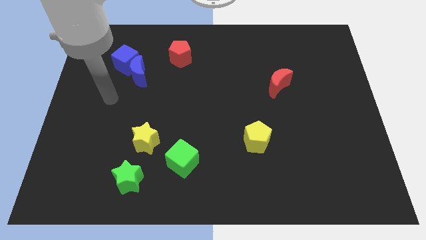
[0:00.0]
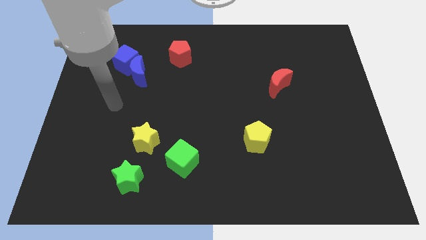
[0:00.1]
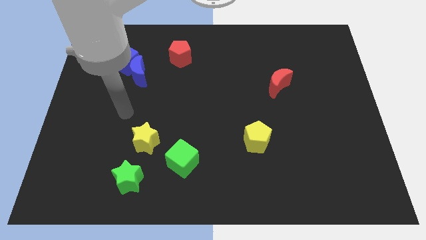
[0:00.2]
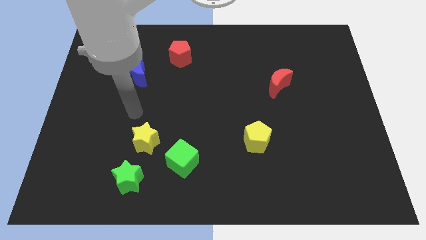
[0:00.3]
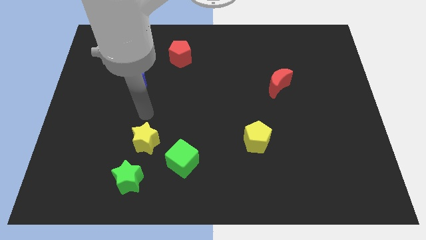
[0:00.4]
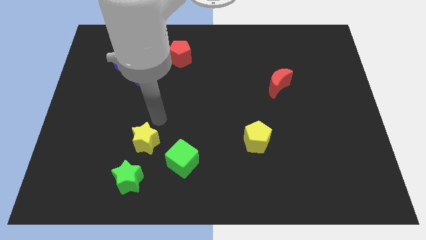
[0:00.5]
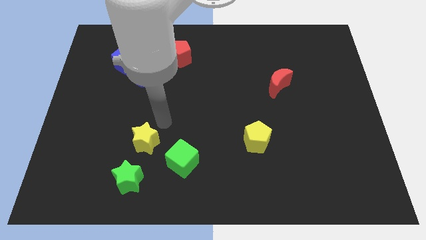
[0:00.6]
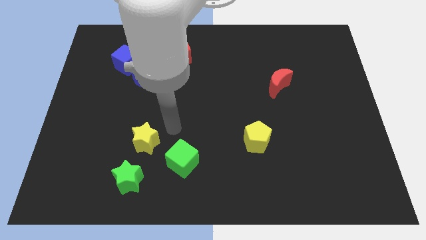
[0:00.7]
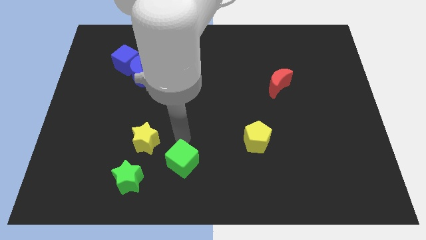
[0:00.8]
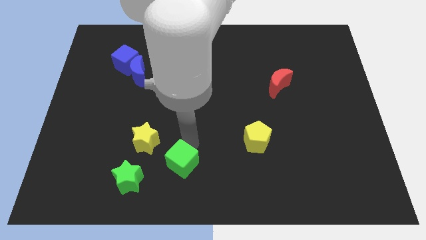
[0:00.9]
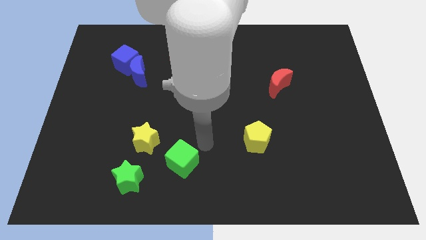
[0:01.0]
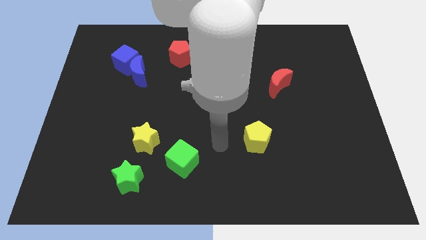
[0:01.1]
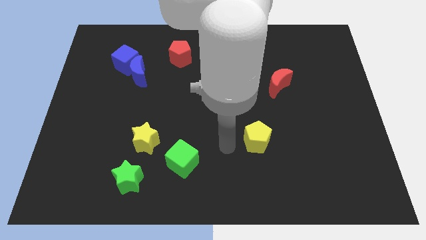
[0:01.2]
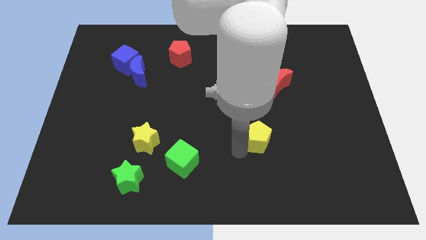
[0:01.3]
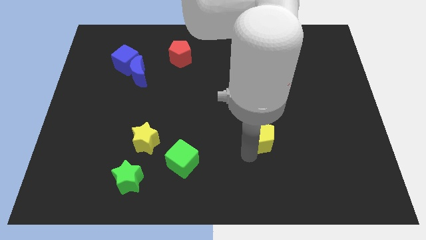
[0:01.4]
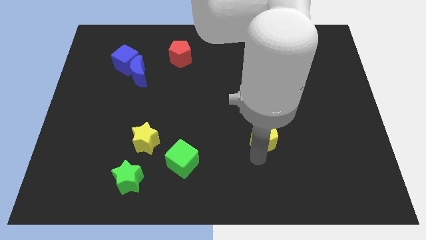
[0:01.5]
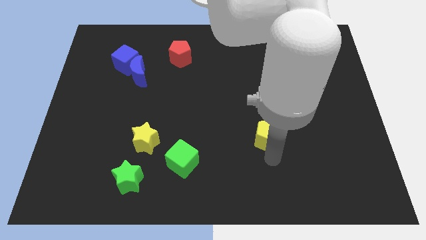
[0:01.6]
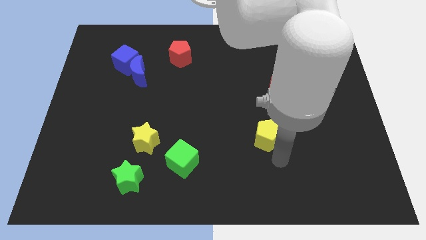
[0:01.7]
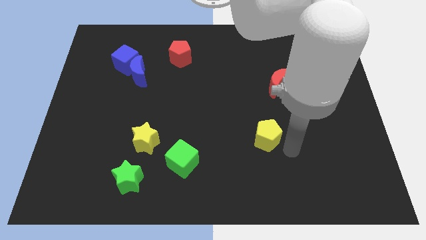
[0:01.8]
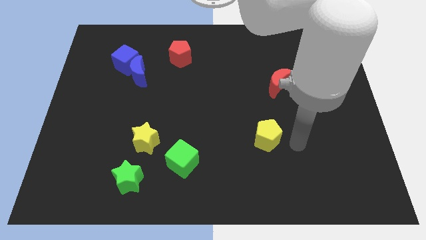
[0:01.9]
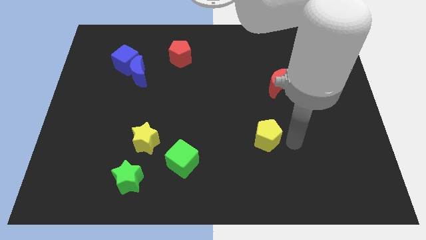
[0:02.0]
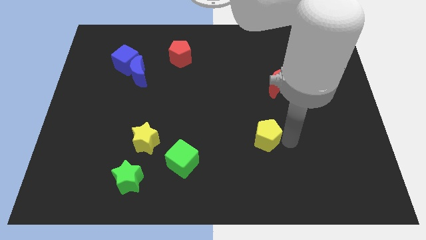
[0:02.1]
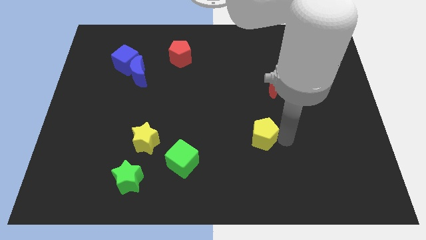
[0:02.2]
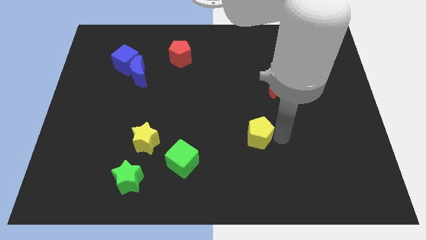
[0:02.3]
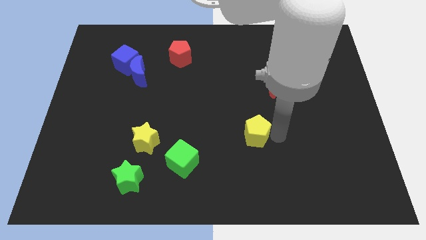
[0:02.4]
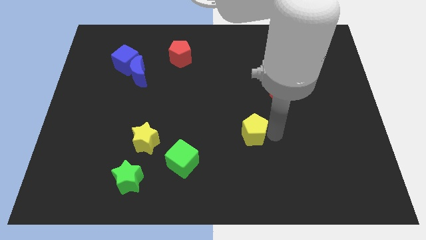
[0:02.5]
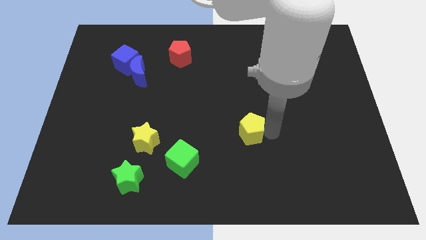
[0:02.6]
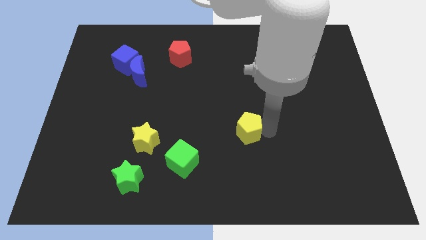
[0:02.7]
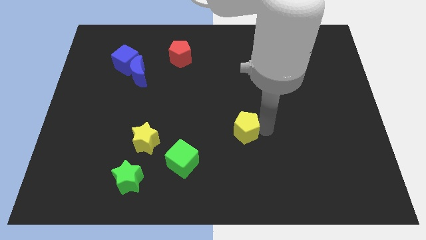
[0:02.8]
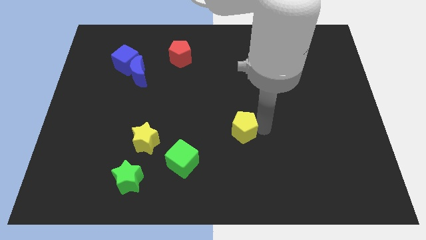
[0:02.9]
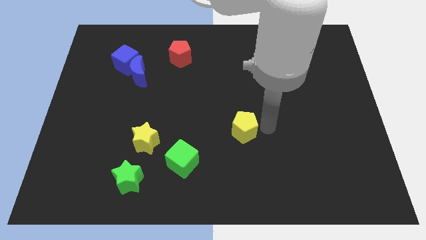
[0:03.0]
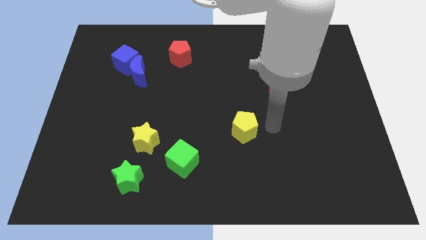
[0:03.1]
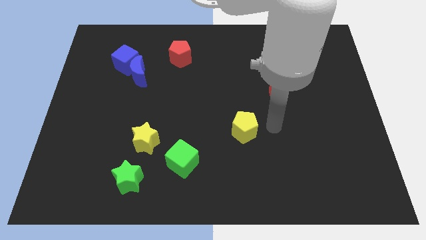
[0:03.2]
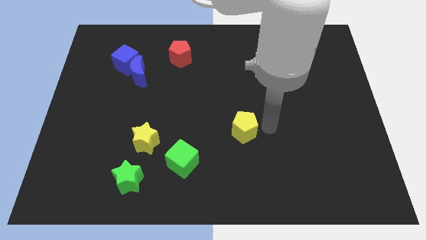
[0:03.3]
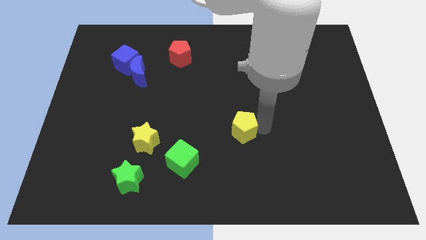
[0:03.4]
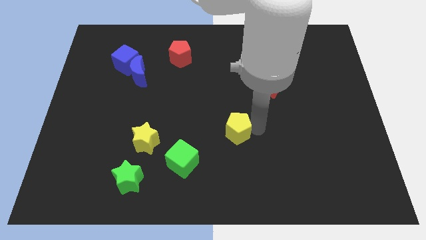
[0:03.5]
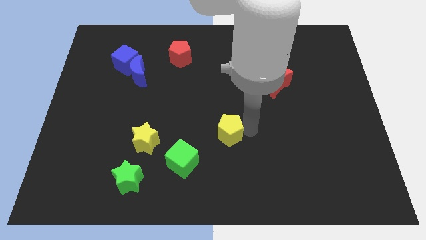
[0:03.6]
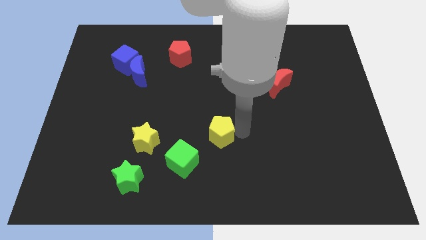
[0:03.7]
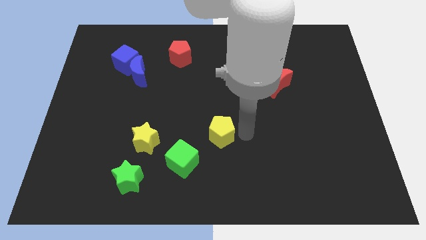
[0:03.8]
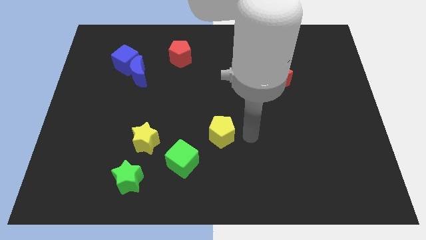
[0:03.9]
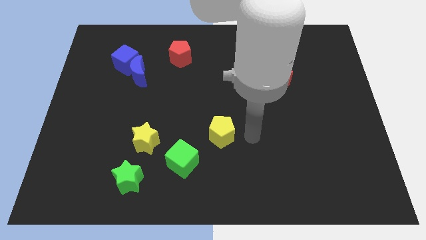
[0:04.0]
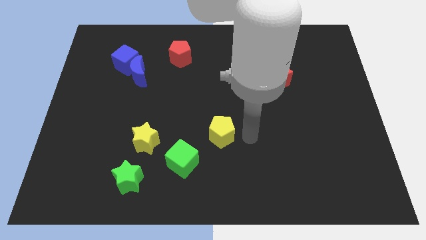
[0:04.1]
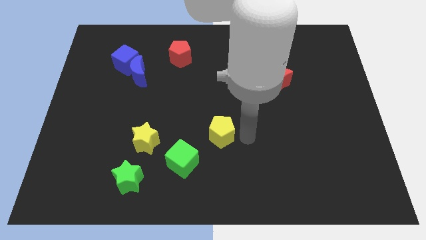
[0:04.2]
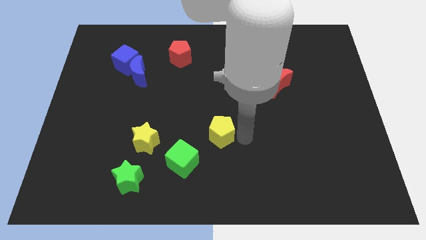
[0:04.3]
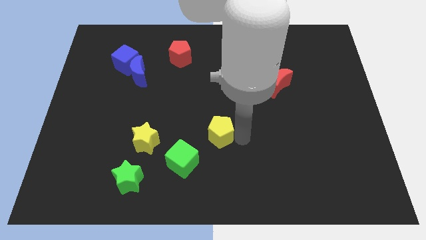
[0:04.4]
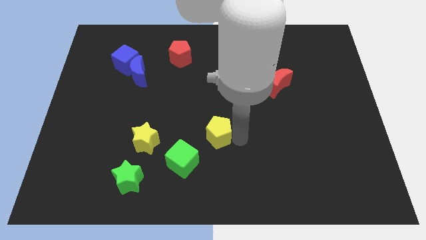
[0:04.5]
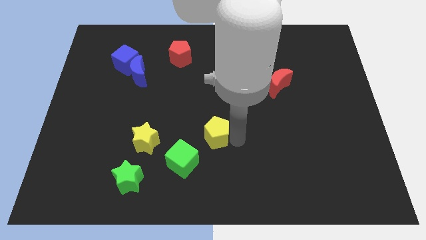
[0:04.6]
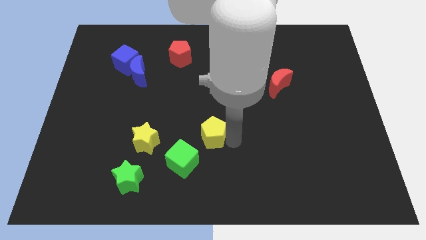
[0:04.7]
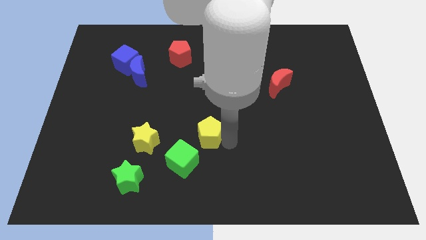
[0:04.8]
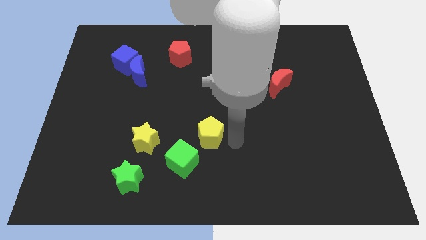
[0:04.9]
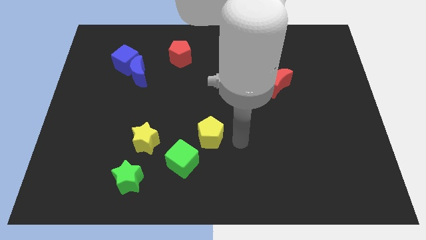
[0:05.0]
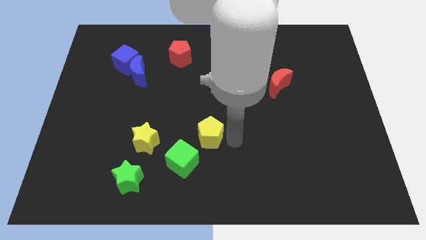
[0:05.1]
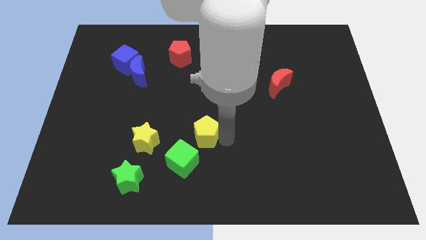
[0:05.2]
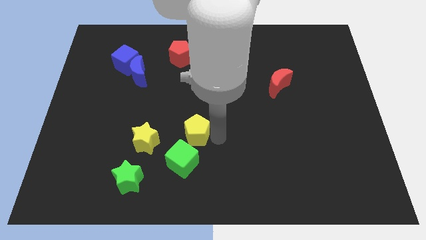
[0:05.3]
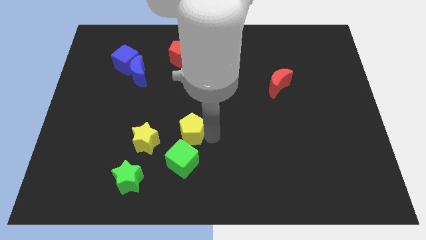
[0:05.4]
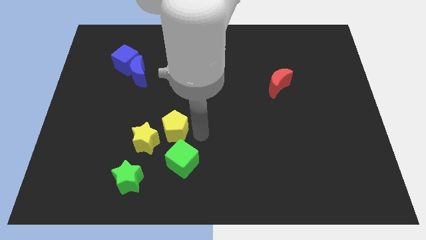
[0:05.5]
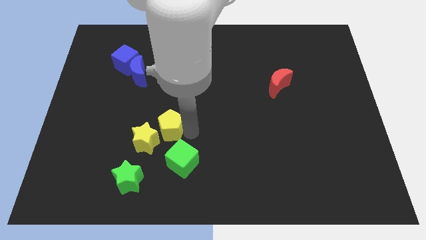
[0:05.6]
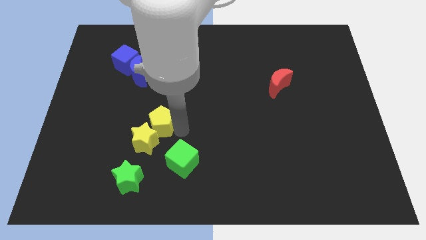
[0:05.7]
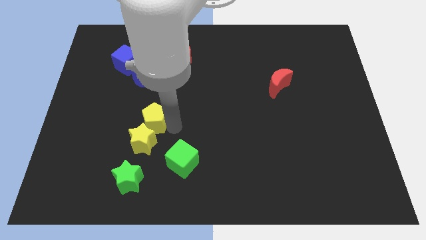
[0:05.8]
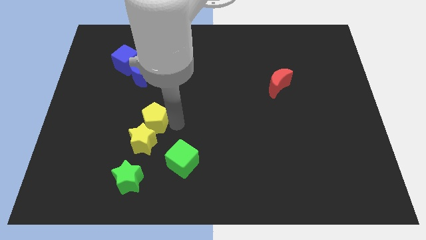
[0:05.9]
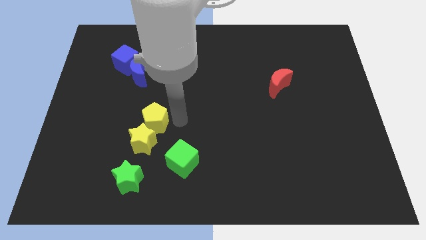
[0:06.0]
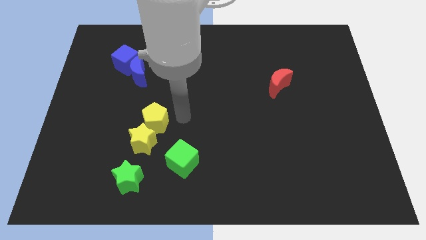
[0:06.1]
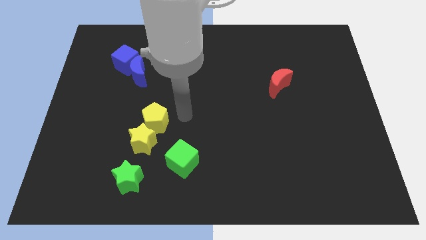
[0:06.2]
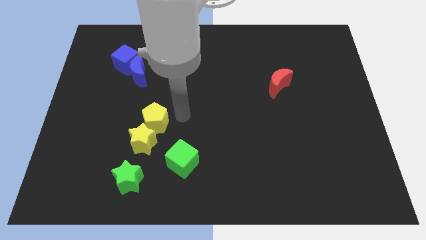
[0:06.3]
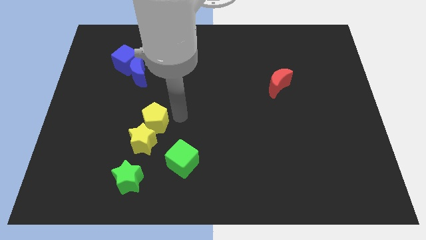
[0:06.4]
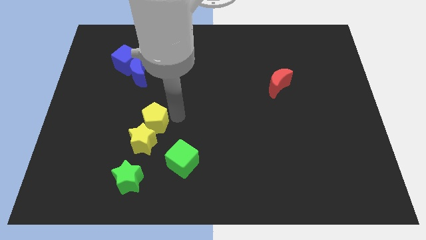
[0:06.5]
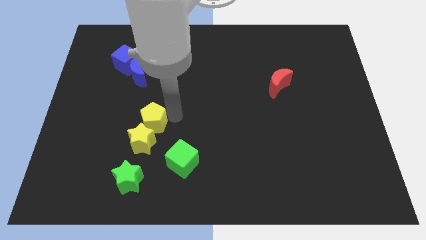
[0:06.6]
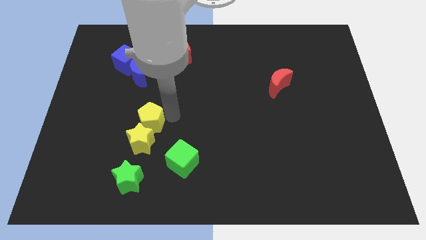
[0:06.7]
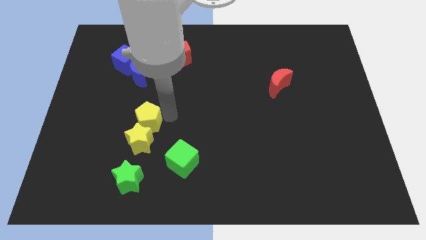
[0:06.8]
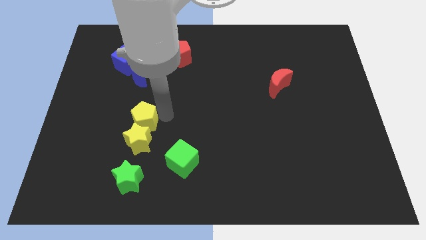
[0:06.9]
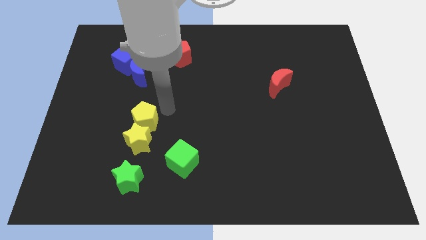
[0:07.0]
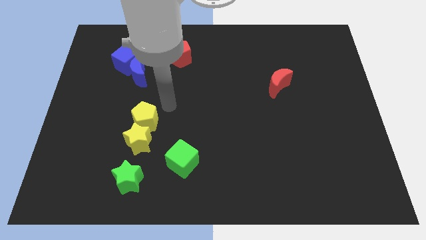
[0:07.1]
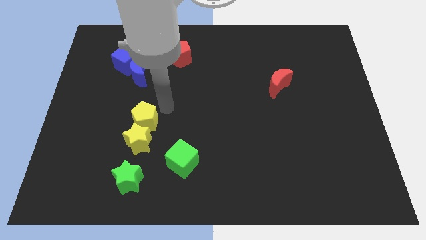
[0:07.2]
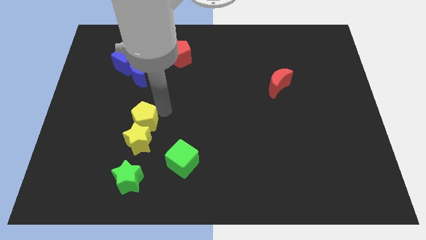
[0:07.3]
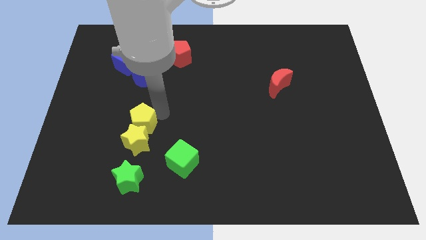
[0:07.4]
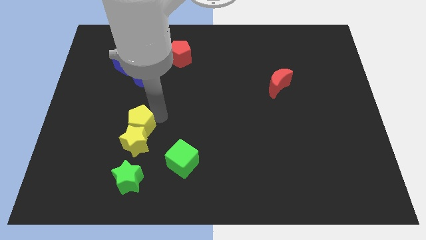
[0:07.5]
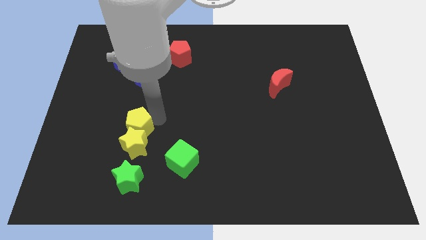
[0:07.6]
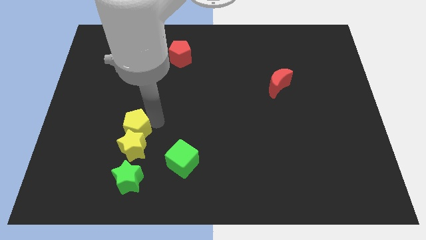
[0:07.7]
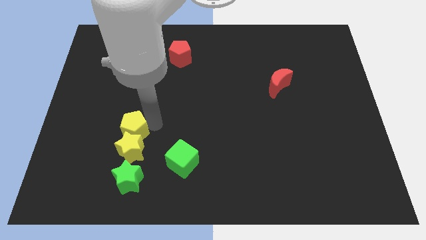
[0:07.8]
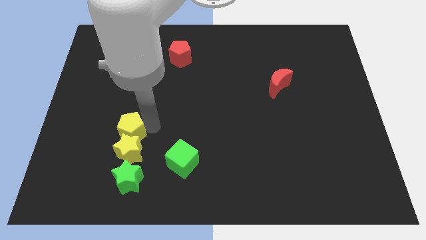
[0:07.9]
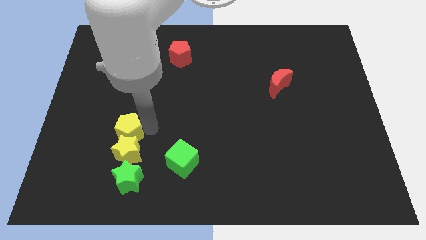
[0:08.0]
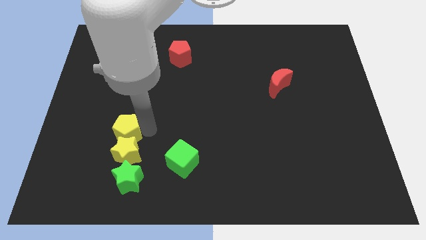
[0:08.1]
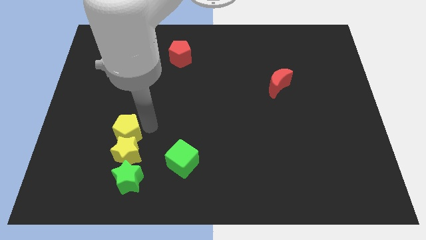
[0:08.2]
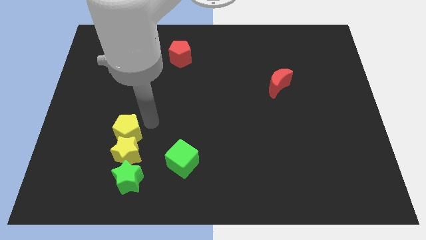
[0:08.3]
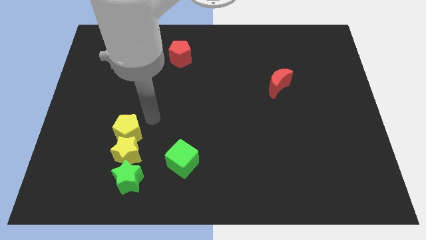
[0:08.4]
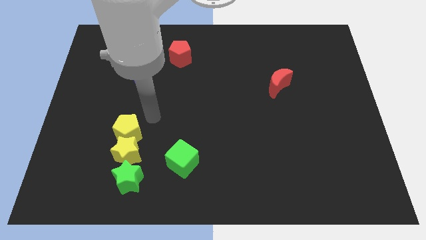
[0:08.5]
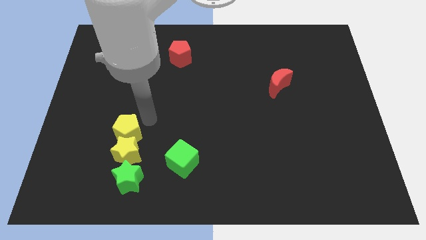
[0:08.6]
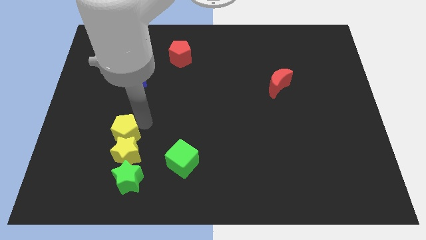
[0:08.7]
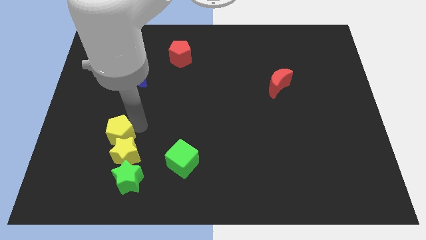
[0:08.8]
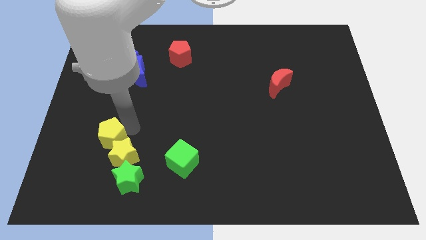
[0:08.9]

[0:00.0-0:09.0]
move the yellow pentagon to the top left side of the green star
